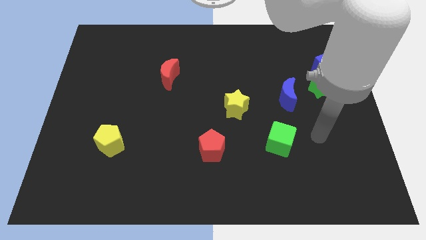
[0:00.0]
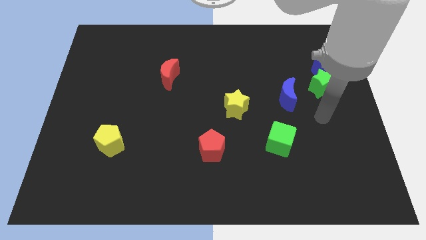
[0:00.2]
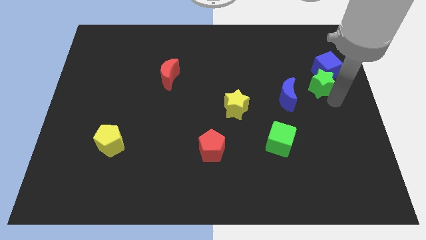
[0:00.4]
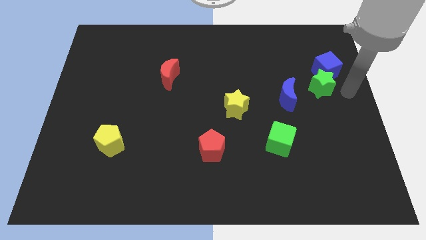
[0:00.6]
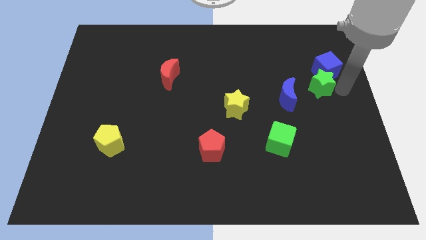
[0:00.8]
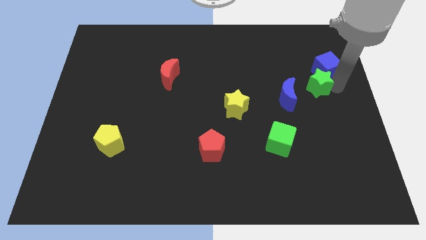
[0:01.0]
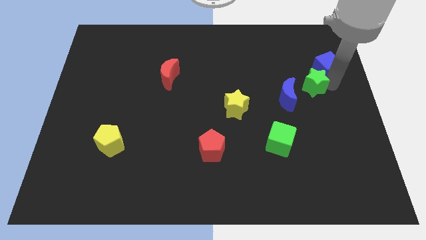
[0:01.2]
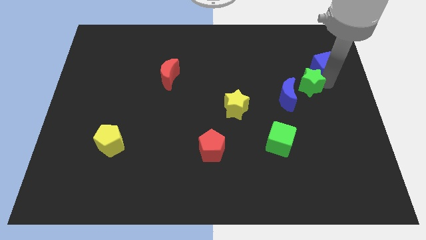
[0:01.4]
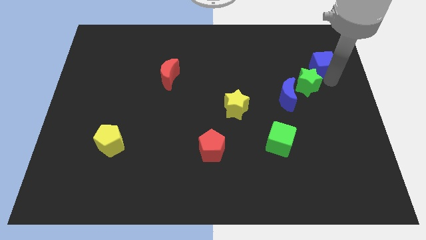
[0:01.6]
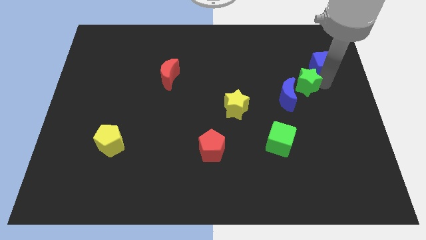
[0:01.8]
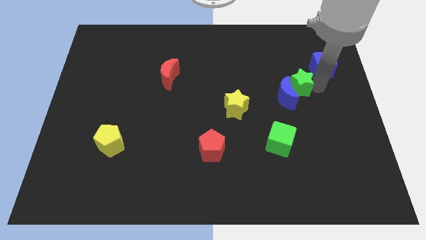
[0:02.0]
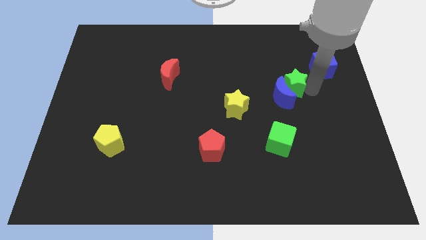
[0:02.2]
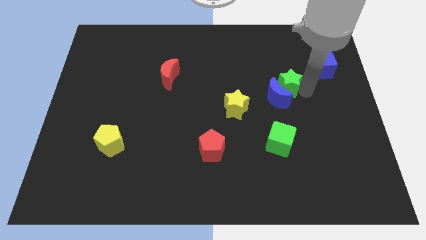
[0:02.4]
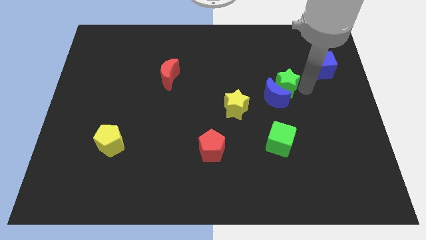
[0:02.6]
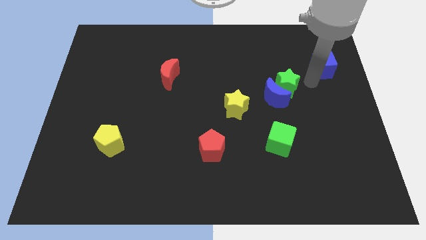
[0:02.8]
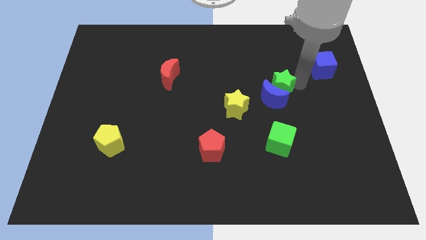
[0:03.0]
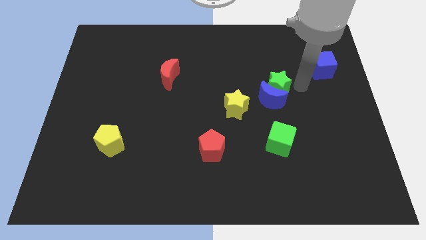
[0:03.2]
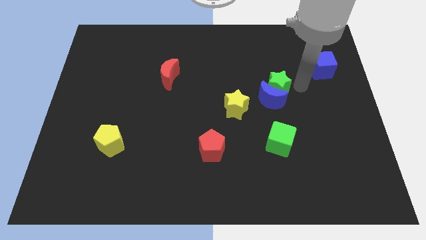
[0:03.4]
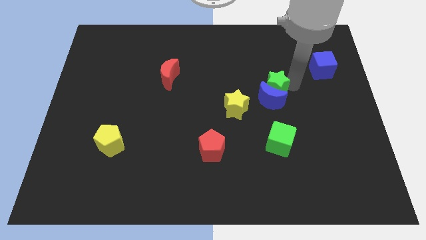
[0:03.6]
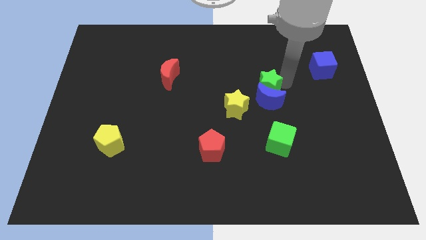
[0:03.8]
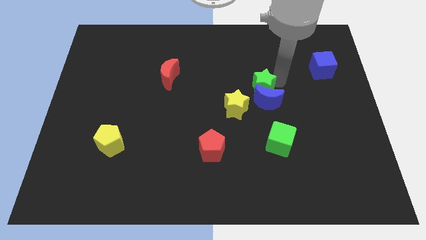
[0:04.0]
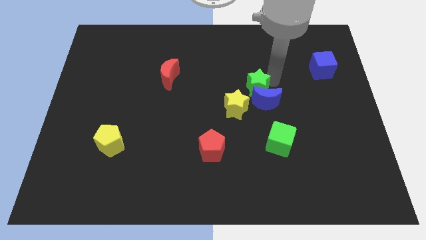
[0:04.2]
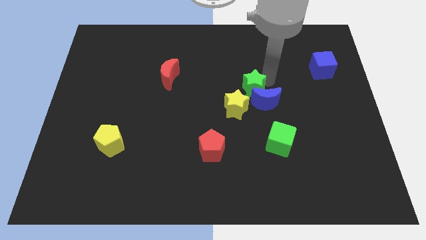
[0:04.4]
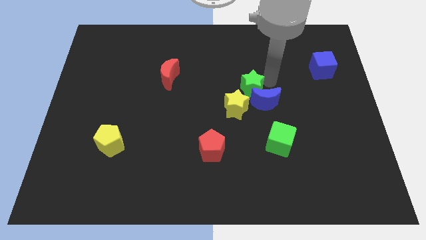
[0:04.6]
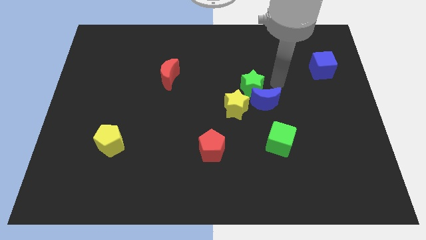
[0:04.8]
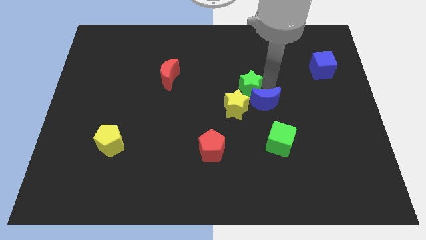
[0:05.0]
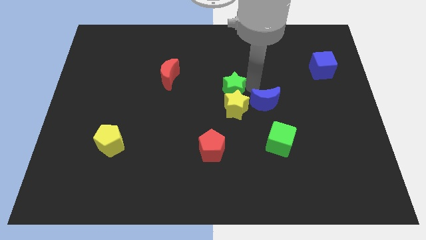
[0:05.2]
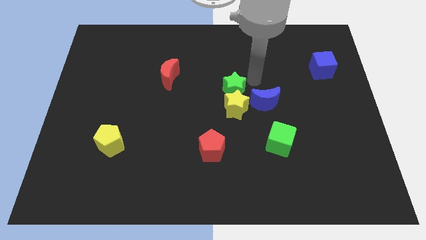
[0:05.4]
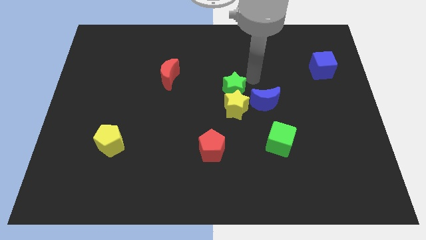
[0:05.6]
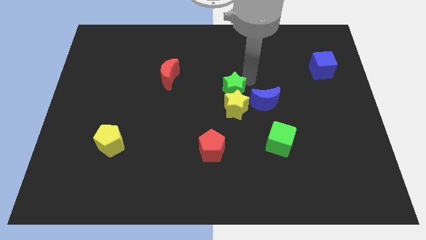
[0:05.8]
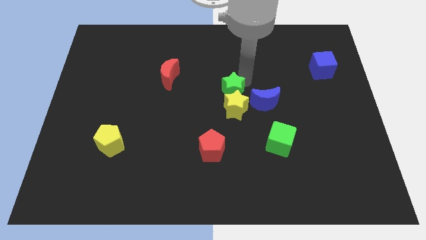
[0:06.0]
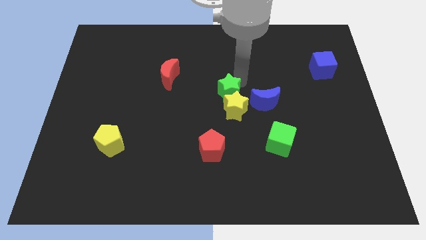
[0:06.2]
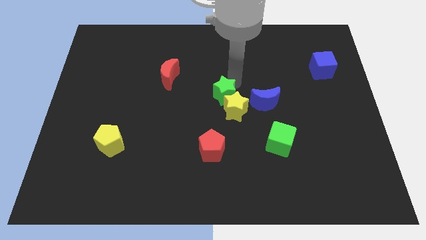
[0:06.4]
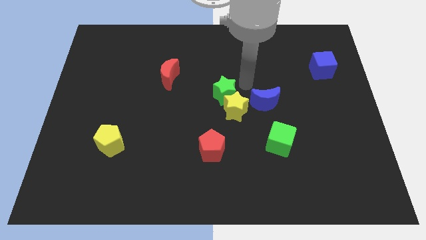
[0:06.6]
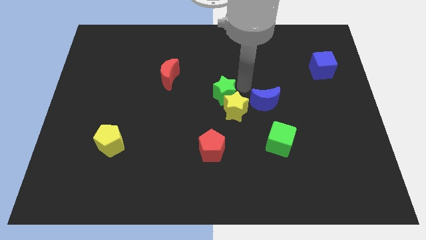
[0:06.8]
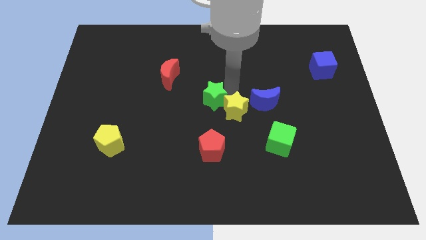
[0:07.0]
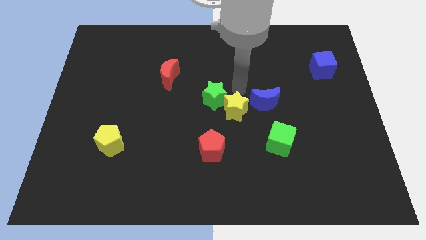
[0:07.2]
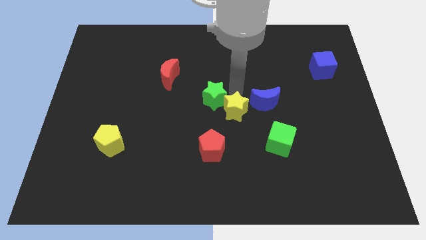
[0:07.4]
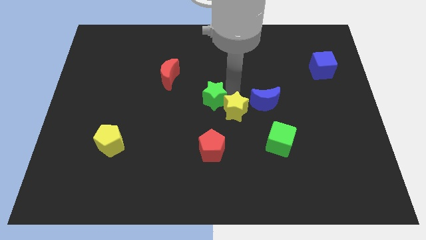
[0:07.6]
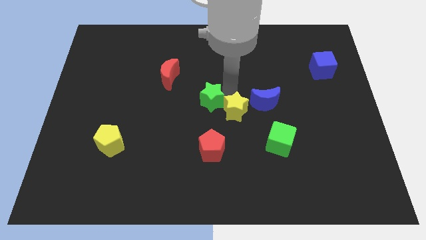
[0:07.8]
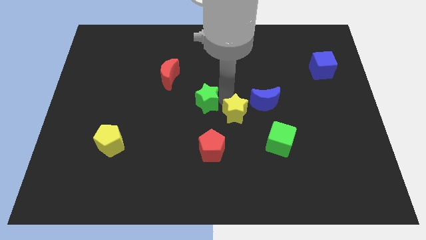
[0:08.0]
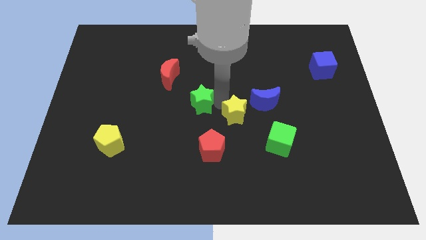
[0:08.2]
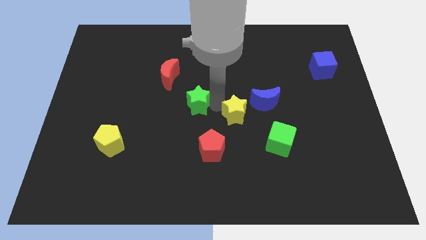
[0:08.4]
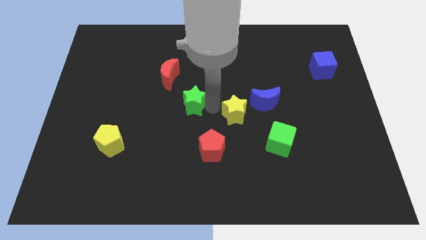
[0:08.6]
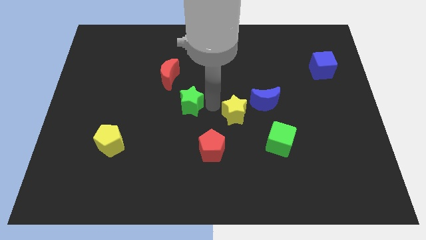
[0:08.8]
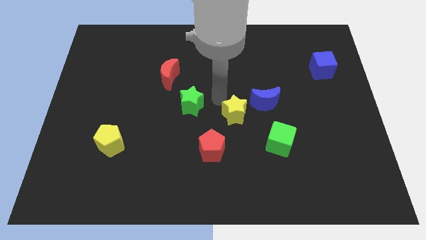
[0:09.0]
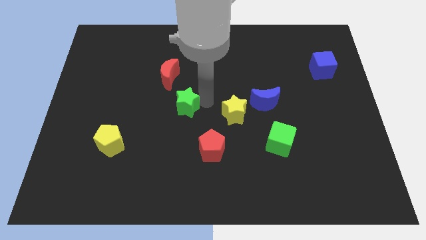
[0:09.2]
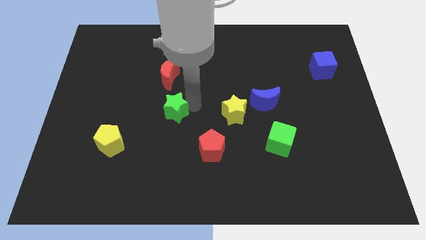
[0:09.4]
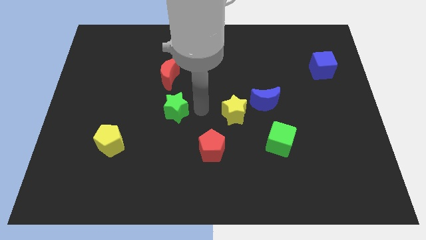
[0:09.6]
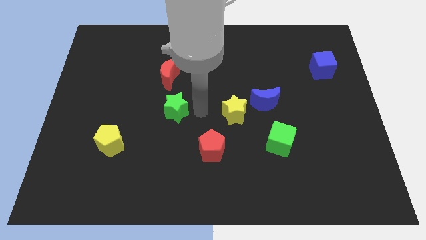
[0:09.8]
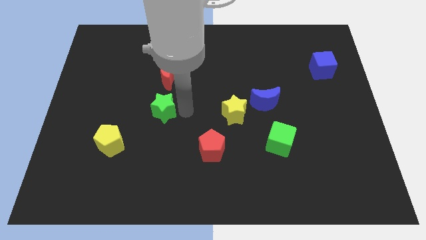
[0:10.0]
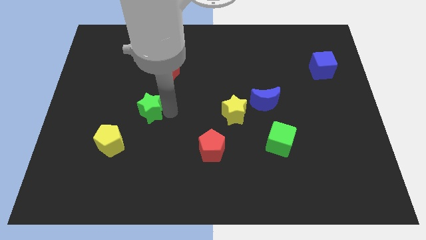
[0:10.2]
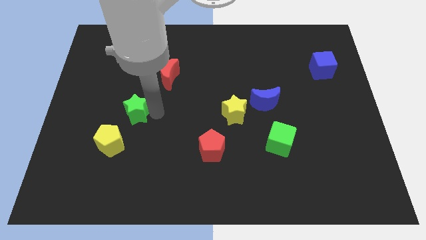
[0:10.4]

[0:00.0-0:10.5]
push the green star to the top of the yellow pentagon

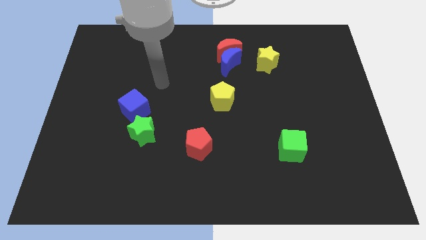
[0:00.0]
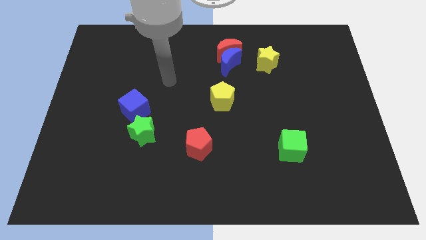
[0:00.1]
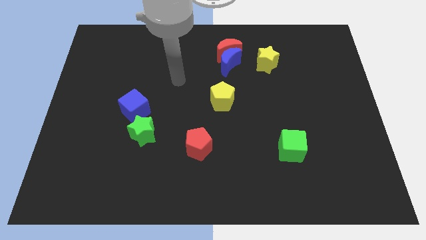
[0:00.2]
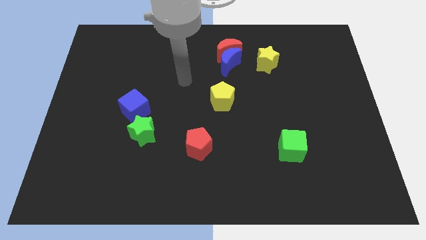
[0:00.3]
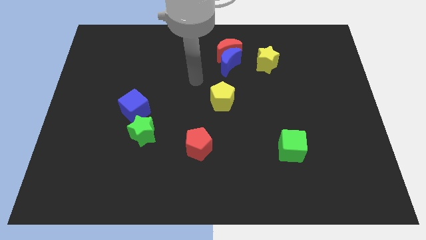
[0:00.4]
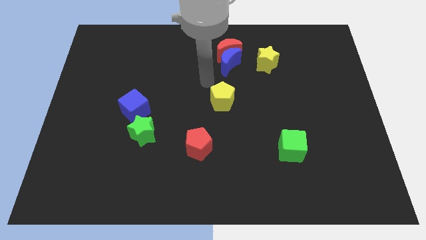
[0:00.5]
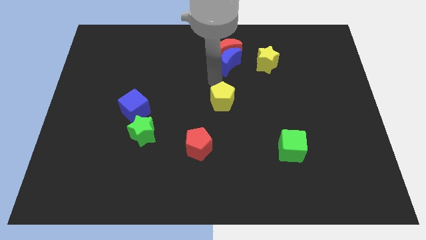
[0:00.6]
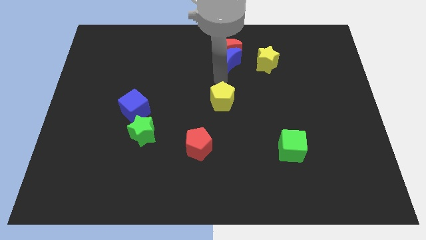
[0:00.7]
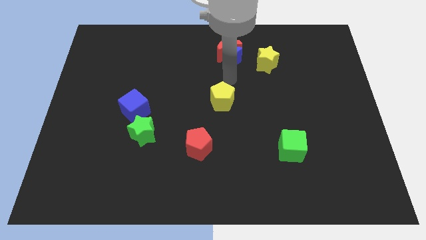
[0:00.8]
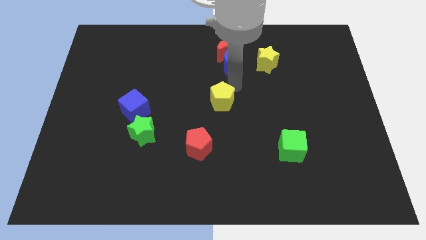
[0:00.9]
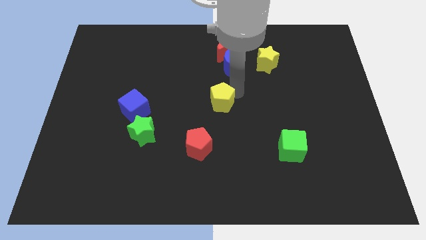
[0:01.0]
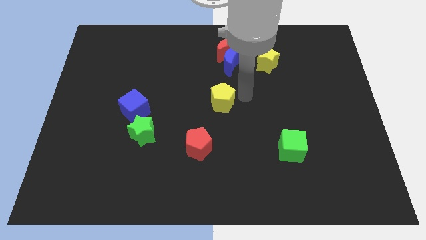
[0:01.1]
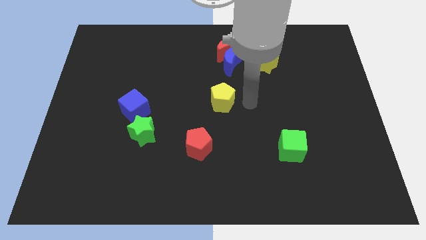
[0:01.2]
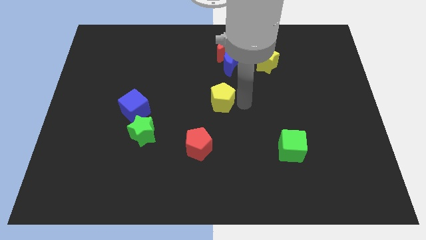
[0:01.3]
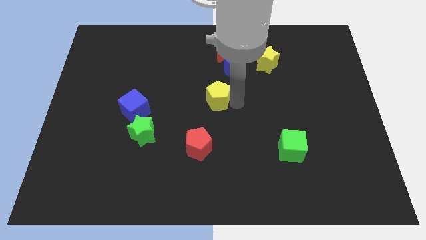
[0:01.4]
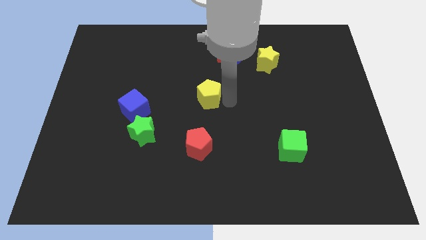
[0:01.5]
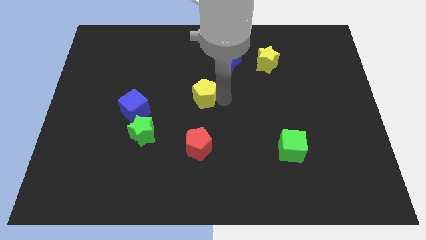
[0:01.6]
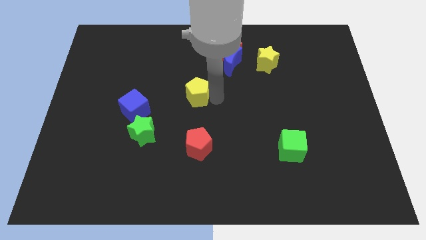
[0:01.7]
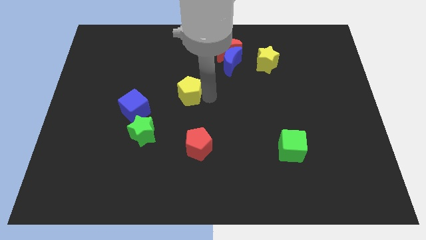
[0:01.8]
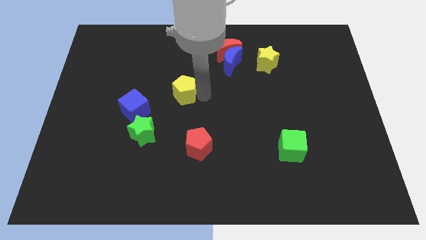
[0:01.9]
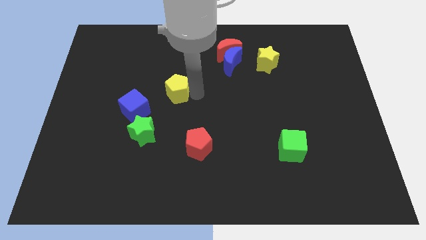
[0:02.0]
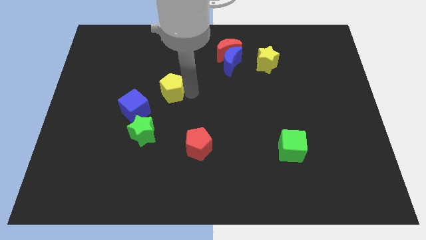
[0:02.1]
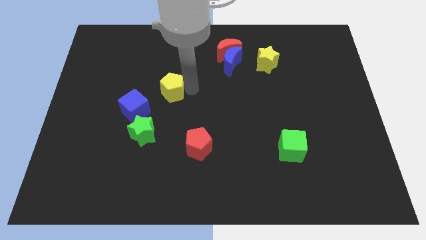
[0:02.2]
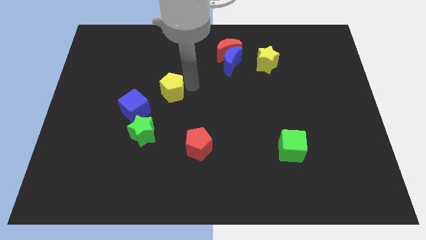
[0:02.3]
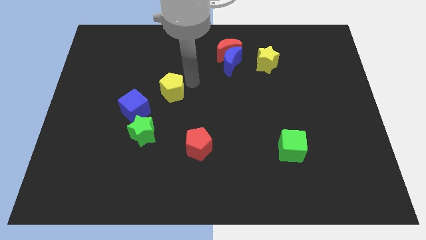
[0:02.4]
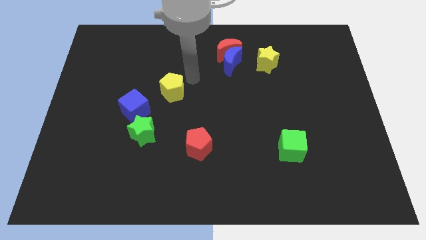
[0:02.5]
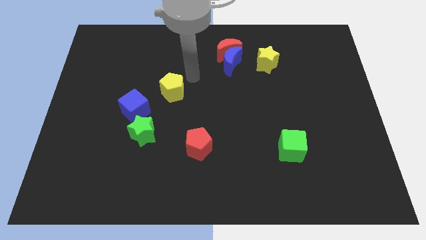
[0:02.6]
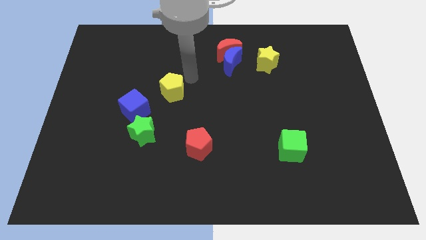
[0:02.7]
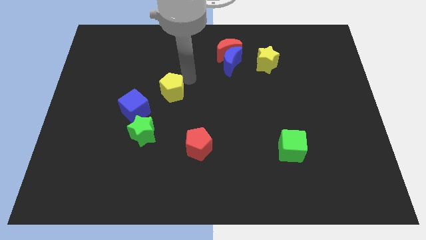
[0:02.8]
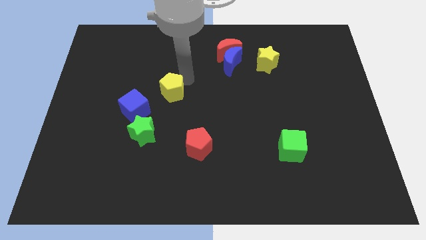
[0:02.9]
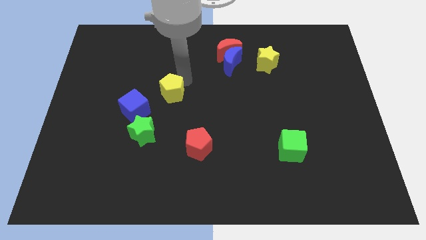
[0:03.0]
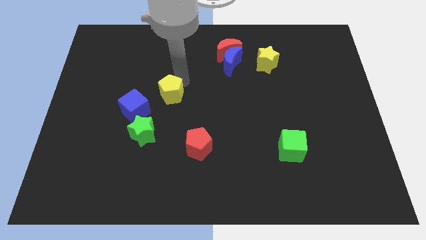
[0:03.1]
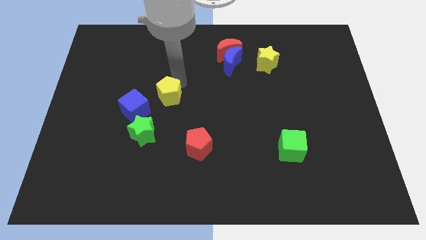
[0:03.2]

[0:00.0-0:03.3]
put the yellow pentagon to the top side of the green star
